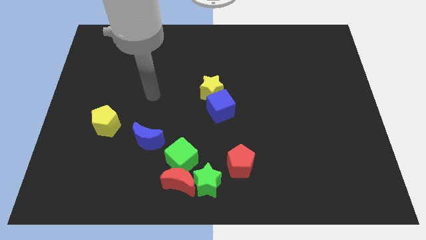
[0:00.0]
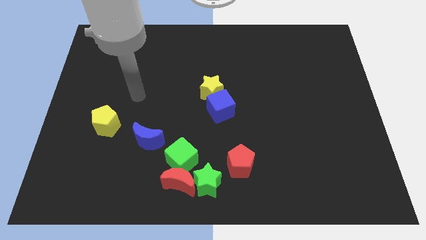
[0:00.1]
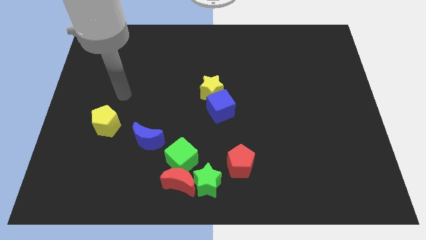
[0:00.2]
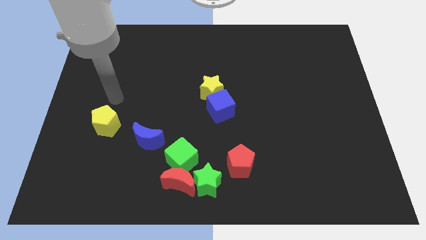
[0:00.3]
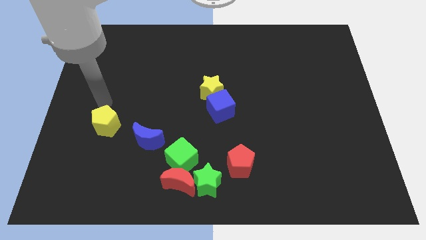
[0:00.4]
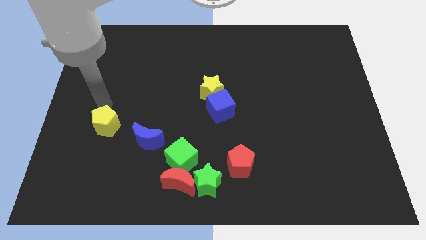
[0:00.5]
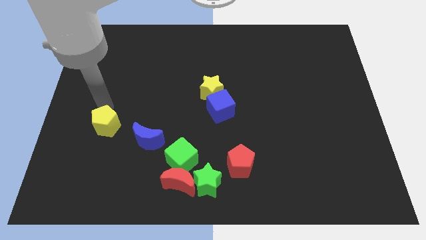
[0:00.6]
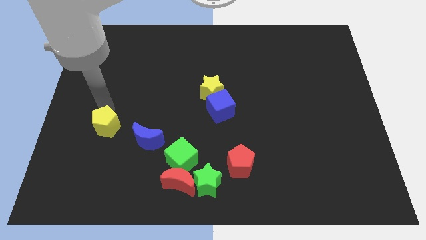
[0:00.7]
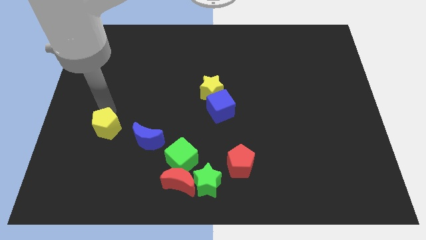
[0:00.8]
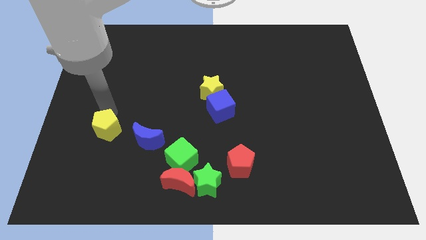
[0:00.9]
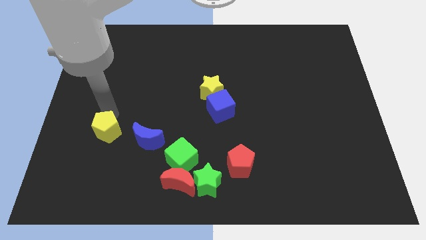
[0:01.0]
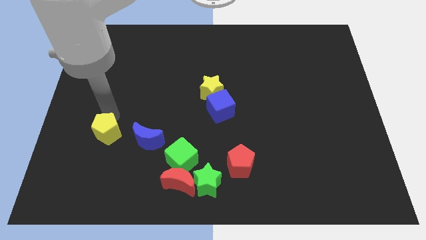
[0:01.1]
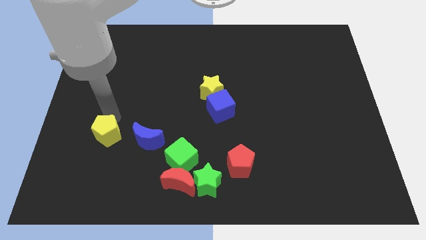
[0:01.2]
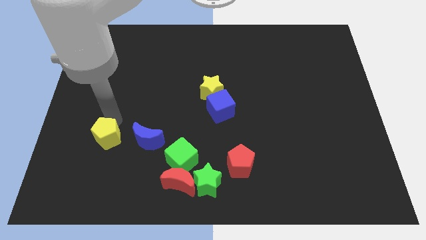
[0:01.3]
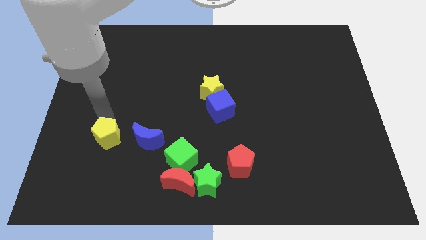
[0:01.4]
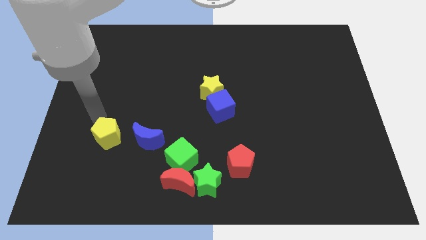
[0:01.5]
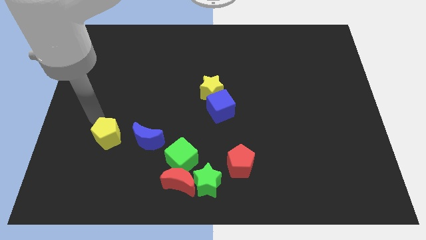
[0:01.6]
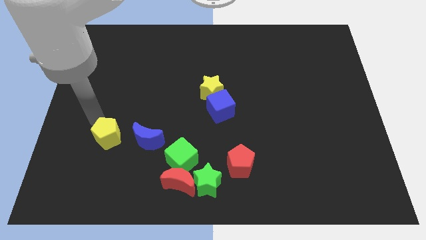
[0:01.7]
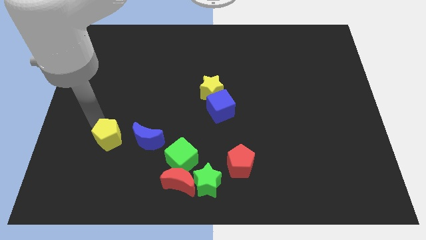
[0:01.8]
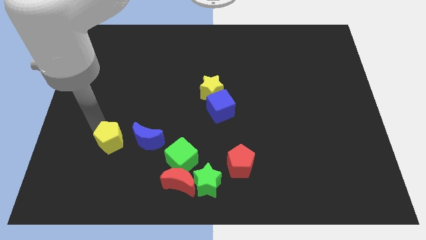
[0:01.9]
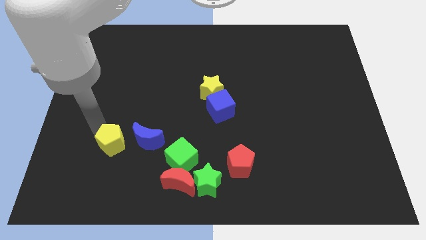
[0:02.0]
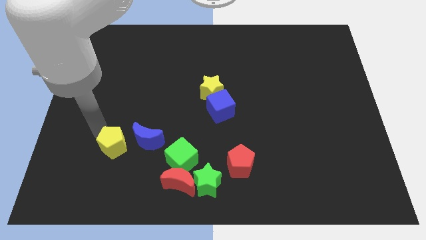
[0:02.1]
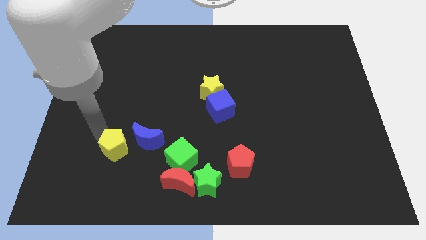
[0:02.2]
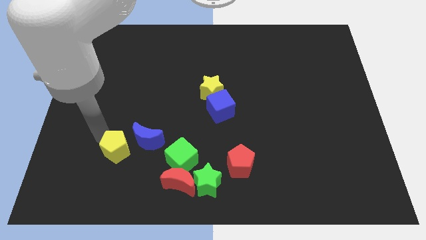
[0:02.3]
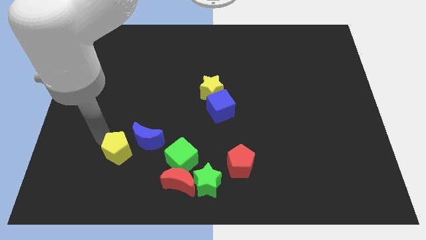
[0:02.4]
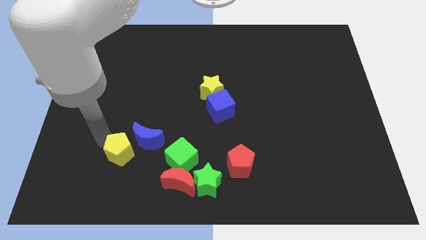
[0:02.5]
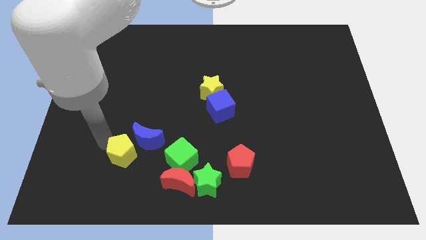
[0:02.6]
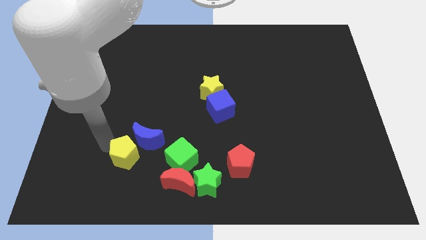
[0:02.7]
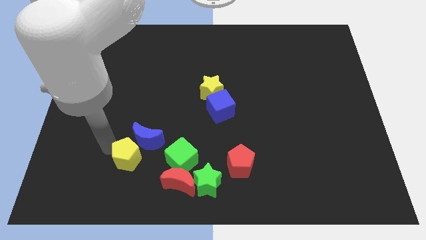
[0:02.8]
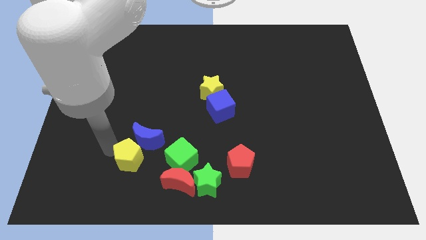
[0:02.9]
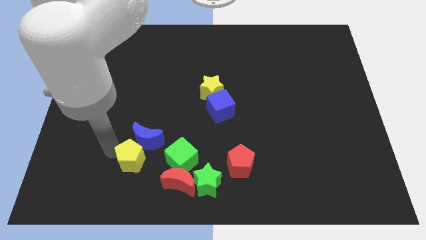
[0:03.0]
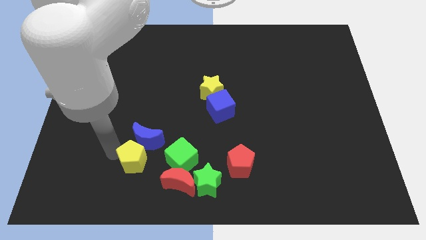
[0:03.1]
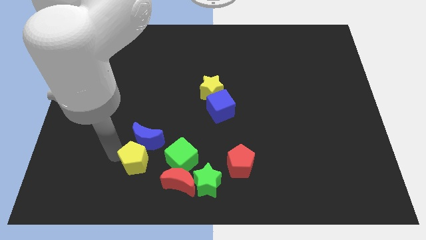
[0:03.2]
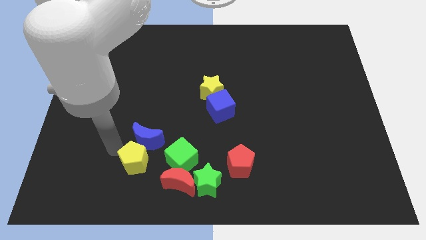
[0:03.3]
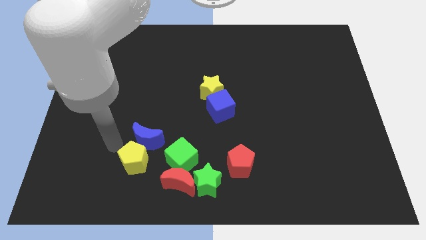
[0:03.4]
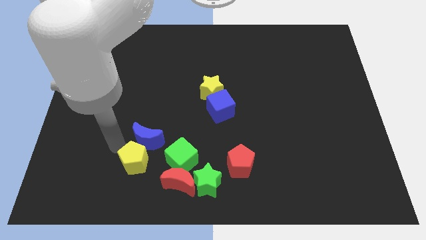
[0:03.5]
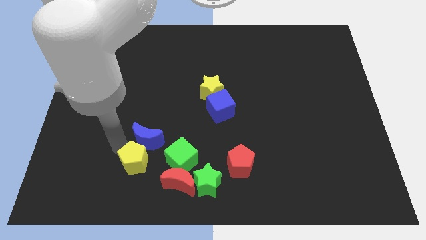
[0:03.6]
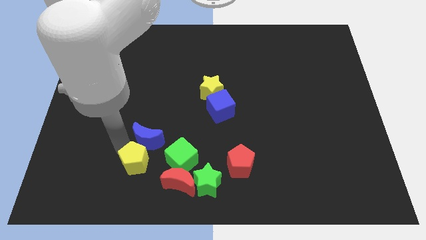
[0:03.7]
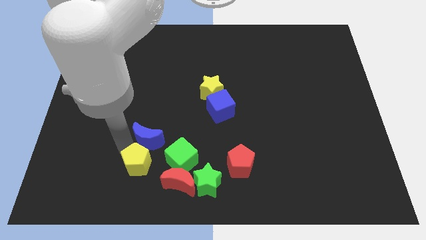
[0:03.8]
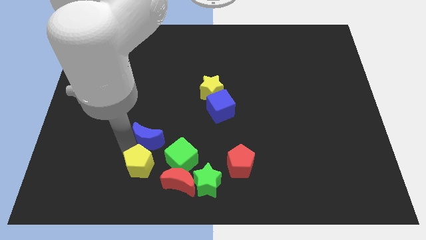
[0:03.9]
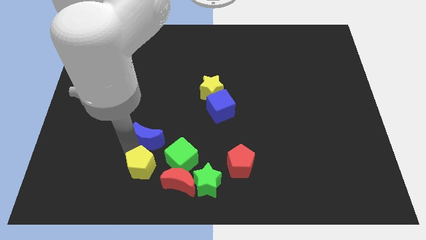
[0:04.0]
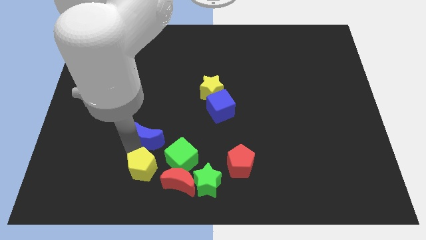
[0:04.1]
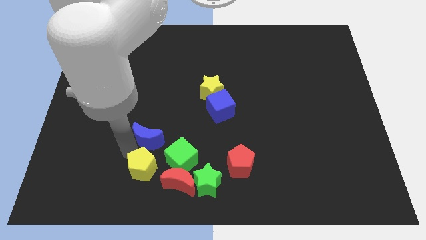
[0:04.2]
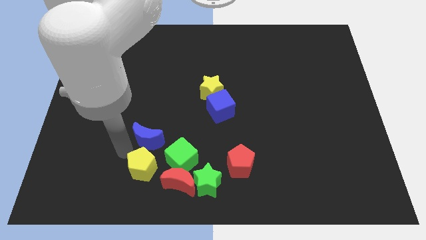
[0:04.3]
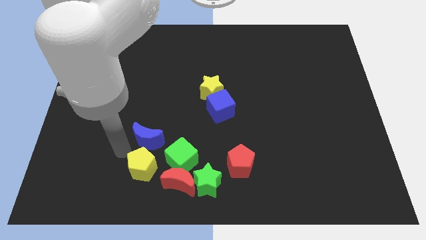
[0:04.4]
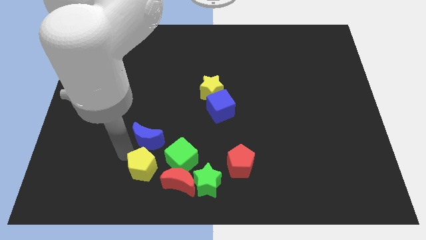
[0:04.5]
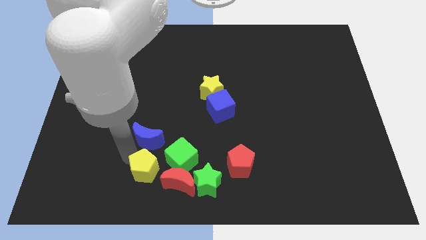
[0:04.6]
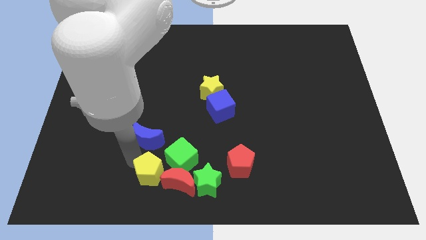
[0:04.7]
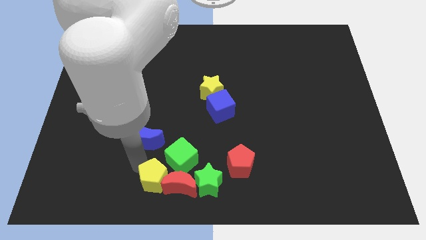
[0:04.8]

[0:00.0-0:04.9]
slide the yellow pentagon to the red moon

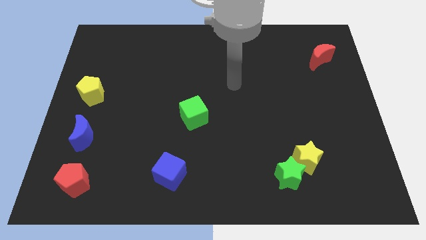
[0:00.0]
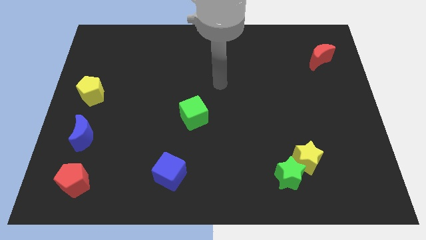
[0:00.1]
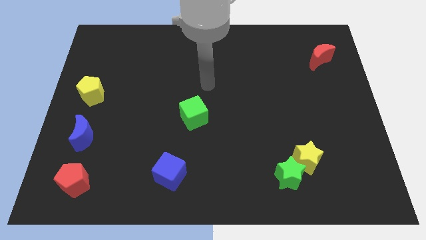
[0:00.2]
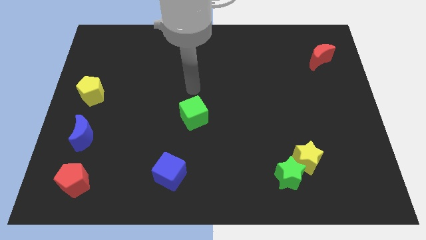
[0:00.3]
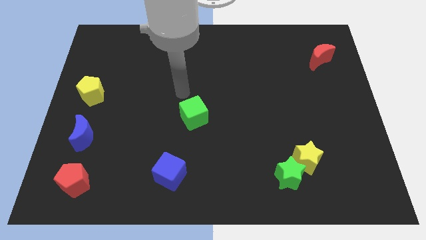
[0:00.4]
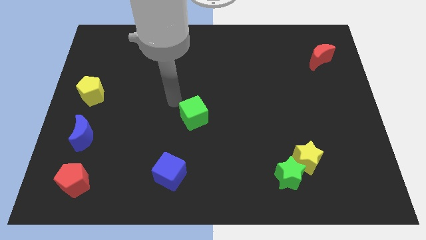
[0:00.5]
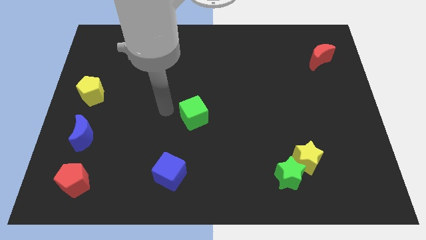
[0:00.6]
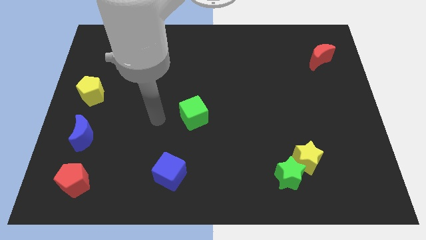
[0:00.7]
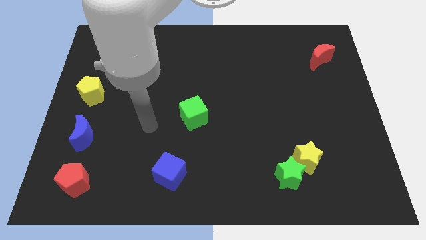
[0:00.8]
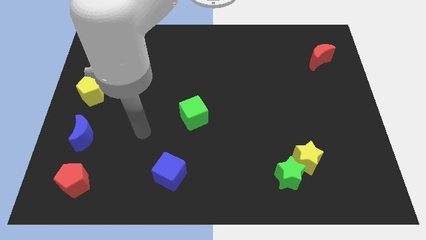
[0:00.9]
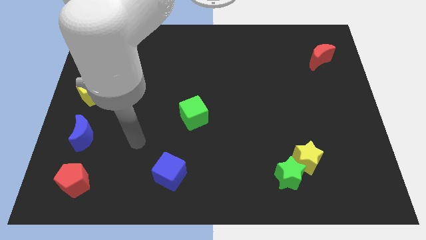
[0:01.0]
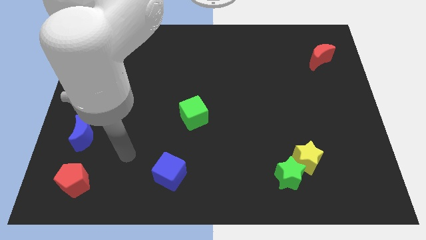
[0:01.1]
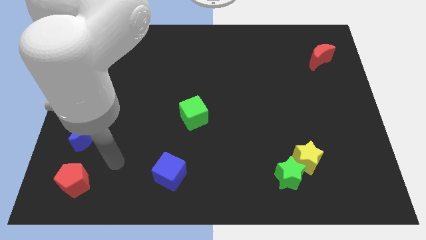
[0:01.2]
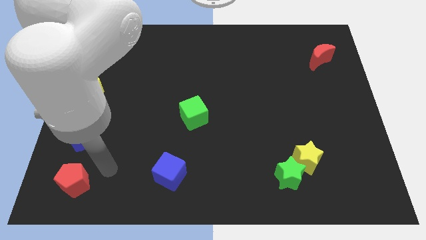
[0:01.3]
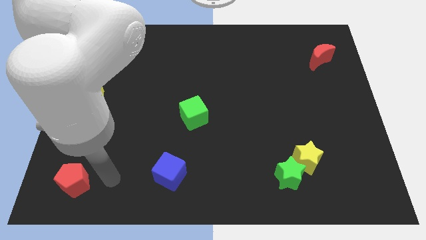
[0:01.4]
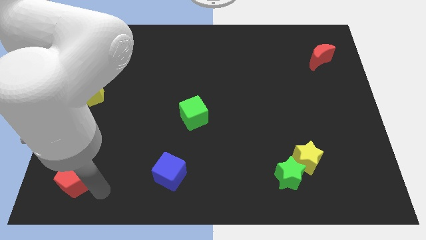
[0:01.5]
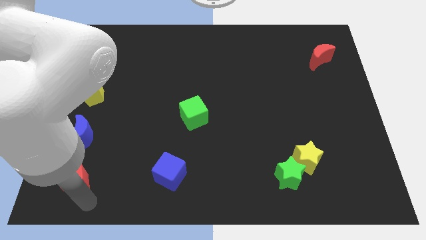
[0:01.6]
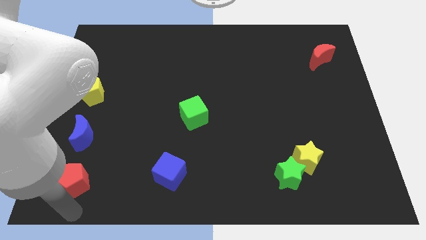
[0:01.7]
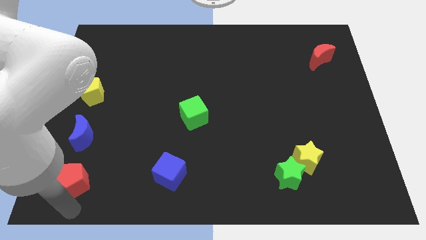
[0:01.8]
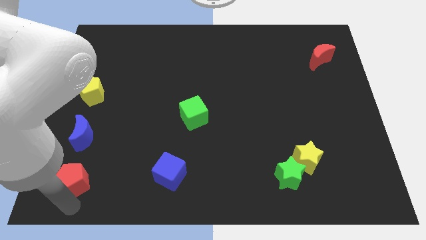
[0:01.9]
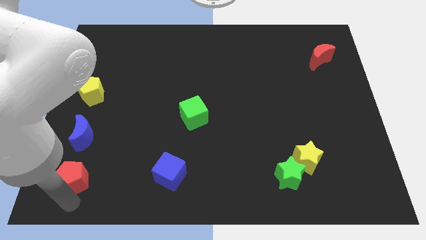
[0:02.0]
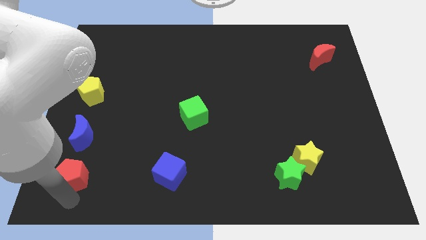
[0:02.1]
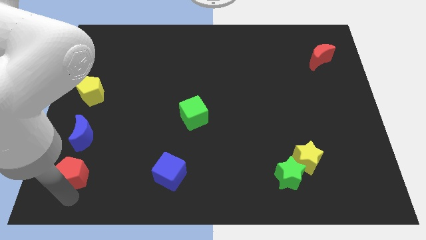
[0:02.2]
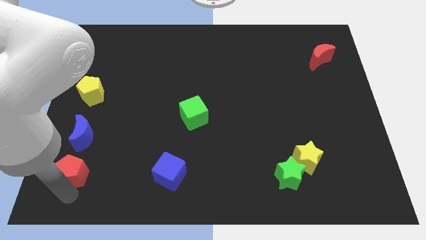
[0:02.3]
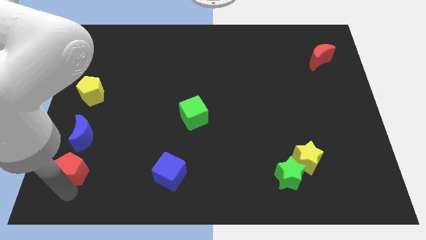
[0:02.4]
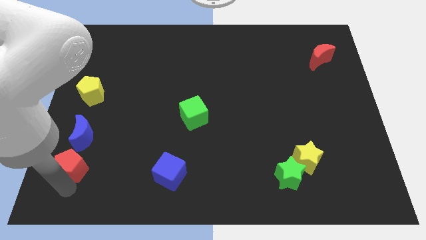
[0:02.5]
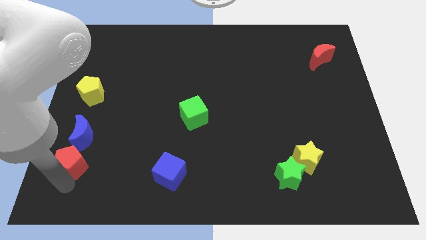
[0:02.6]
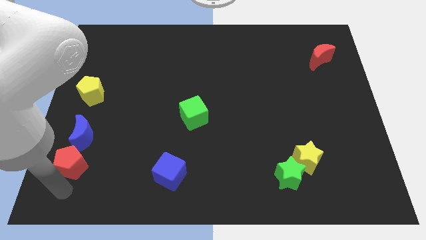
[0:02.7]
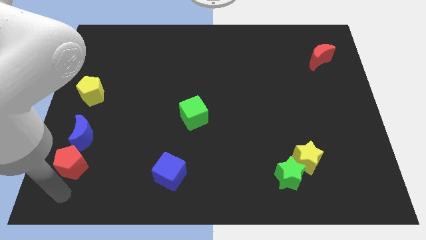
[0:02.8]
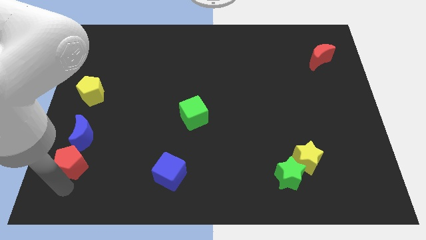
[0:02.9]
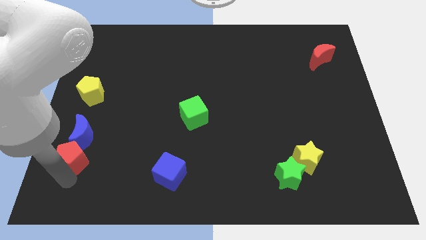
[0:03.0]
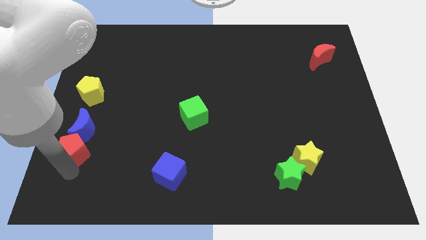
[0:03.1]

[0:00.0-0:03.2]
push the red pentagon towards the blue moon
